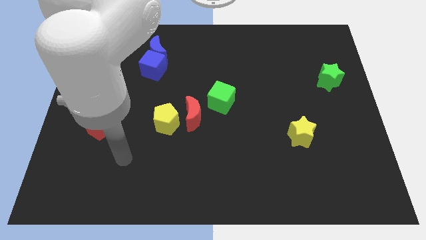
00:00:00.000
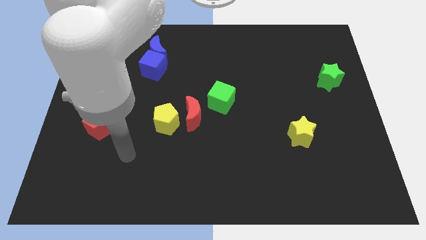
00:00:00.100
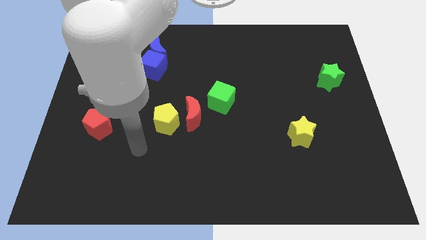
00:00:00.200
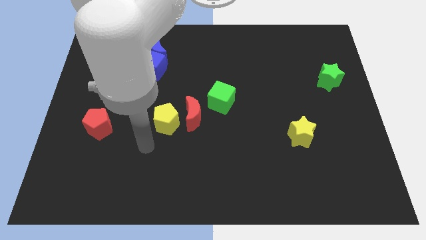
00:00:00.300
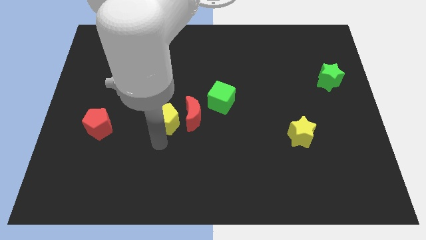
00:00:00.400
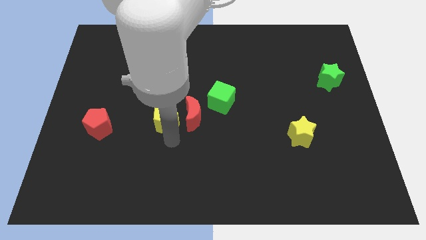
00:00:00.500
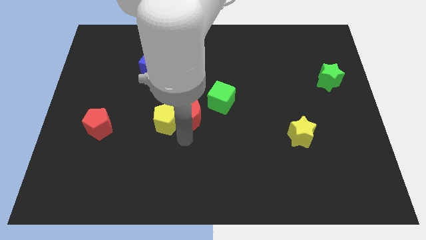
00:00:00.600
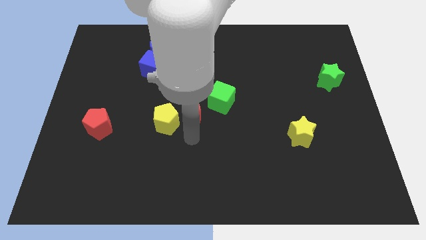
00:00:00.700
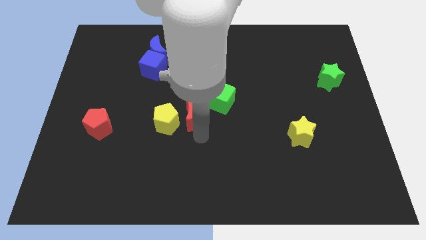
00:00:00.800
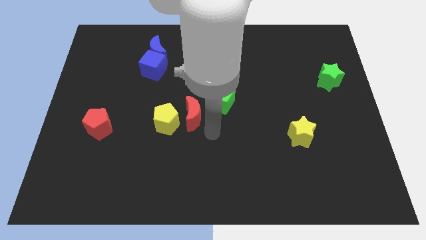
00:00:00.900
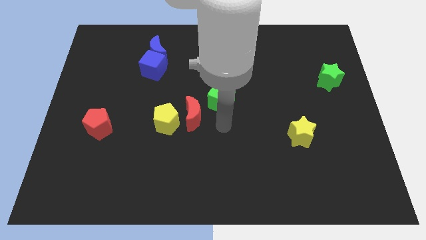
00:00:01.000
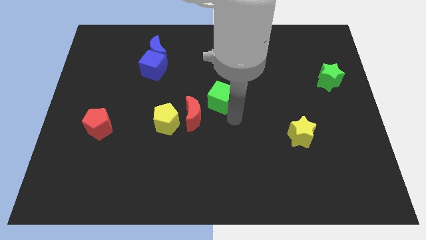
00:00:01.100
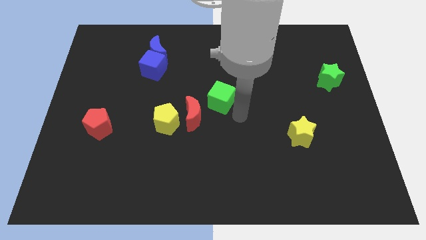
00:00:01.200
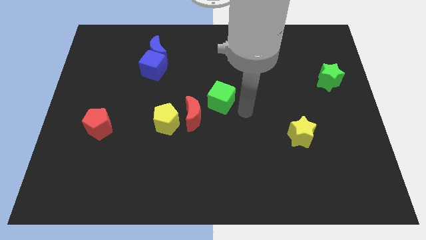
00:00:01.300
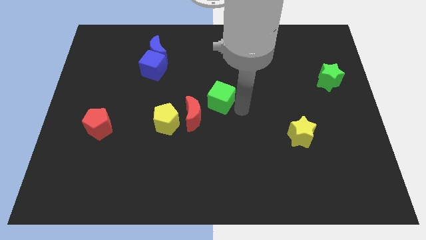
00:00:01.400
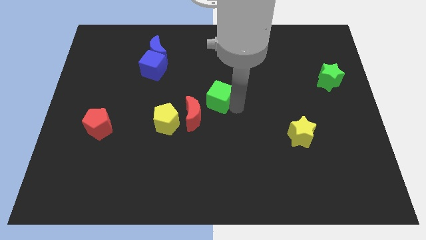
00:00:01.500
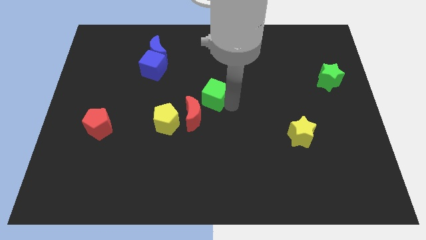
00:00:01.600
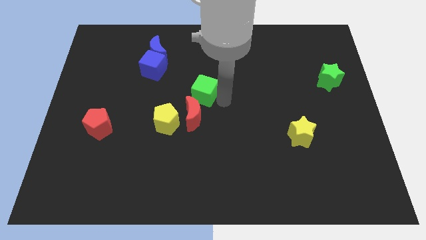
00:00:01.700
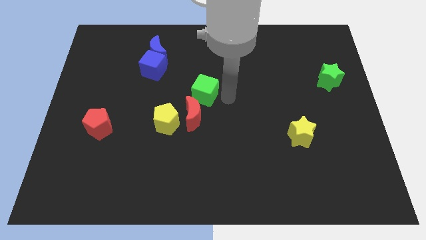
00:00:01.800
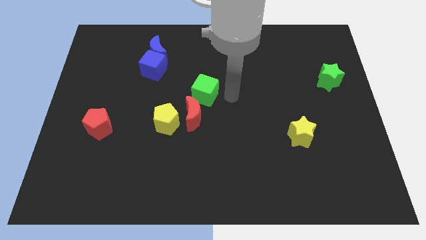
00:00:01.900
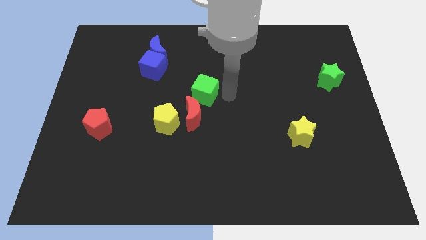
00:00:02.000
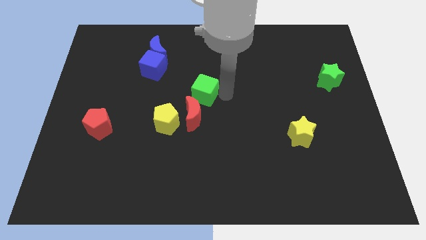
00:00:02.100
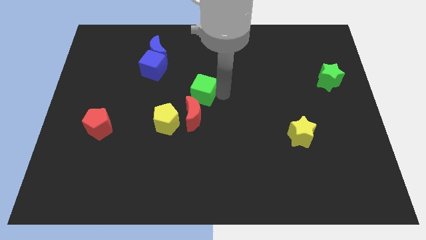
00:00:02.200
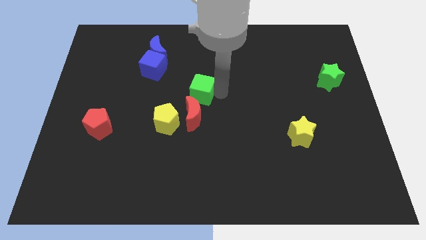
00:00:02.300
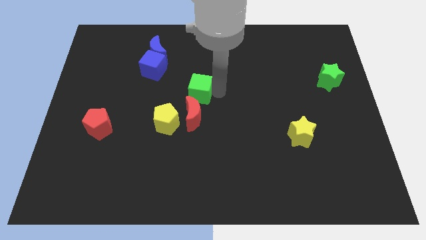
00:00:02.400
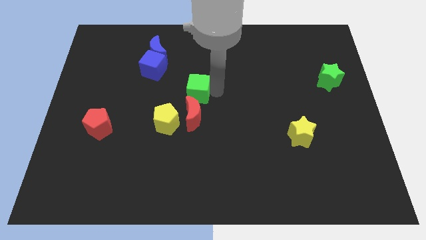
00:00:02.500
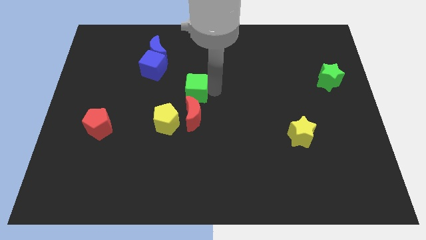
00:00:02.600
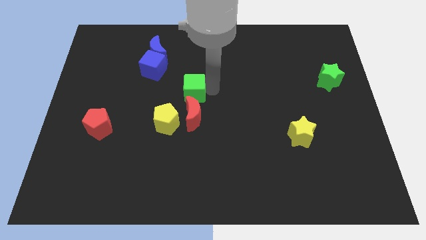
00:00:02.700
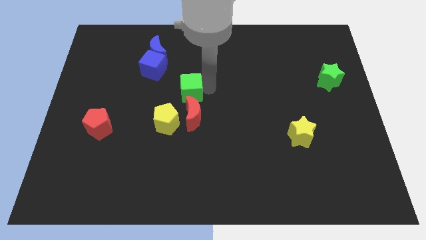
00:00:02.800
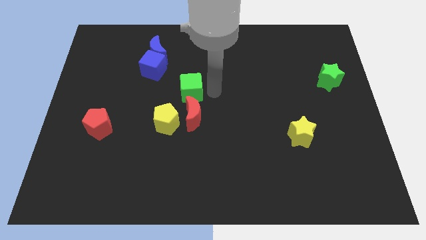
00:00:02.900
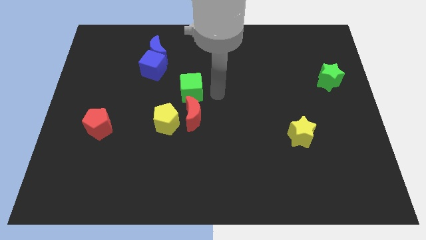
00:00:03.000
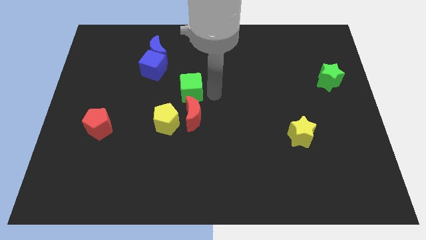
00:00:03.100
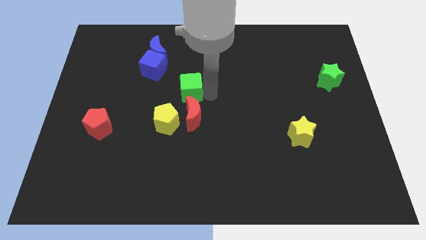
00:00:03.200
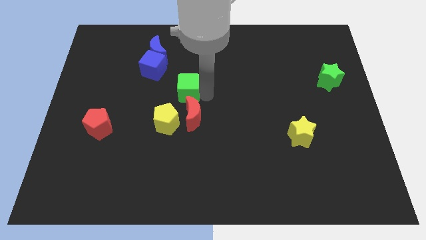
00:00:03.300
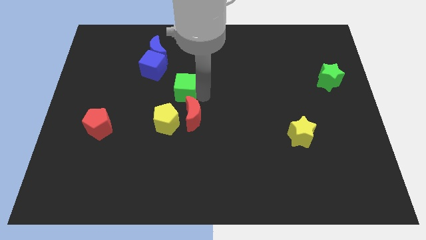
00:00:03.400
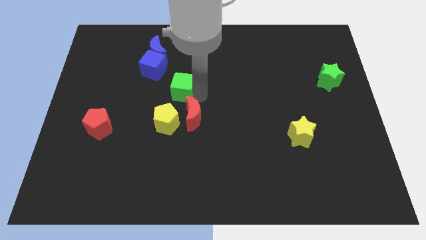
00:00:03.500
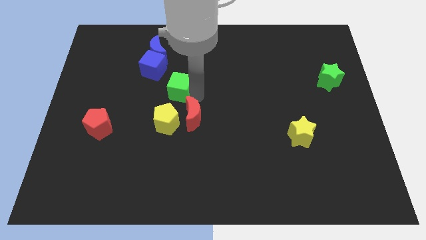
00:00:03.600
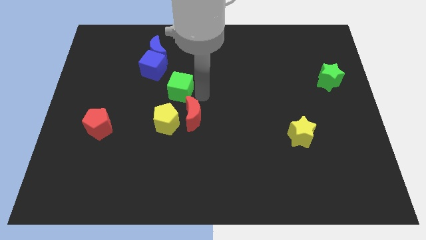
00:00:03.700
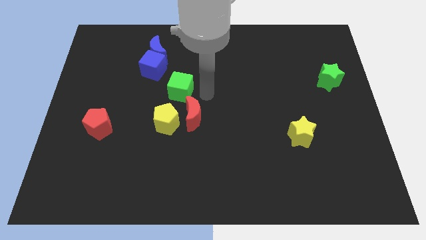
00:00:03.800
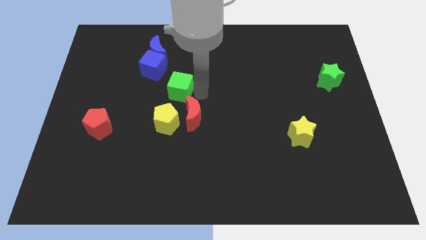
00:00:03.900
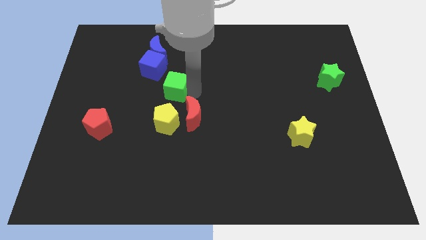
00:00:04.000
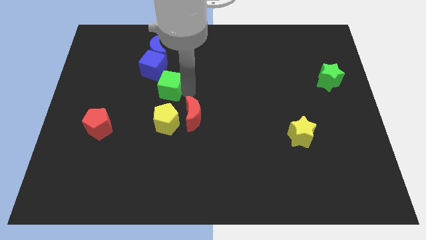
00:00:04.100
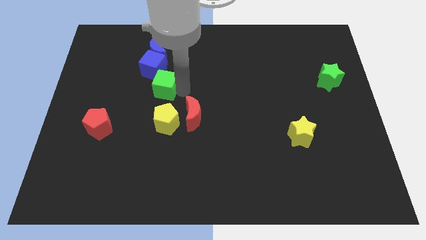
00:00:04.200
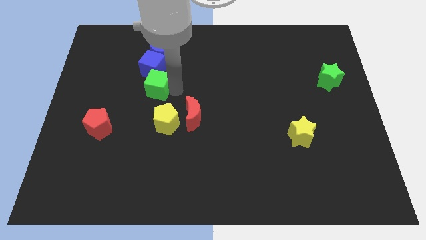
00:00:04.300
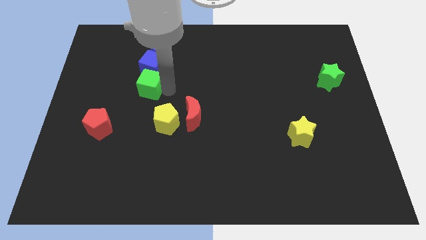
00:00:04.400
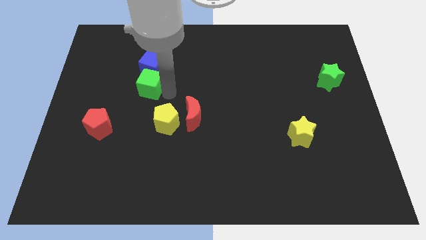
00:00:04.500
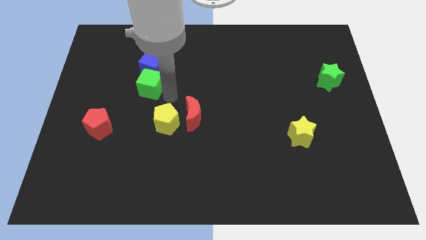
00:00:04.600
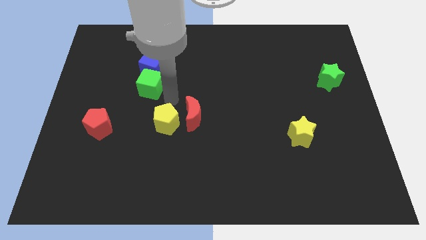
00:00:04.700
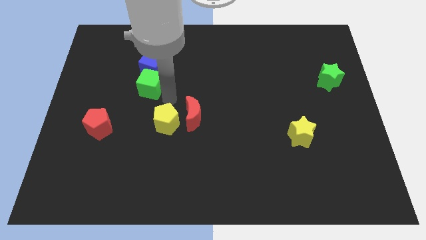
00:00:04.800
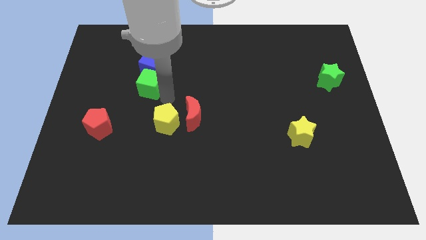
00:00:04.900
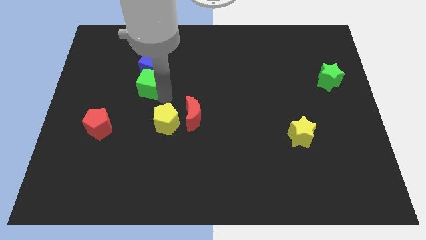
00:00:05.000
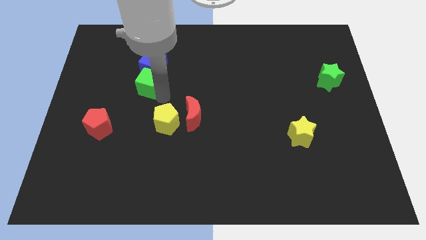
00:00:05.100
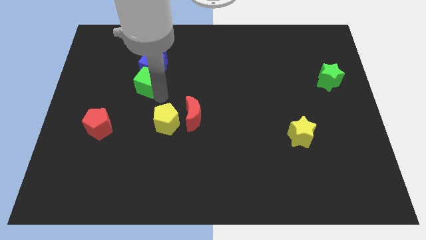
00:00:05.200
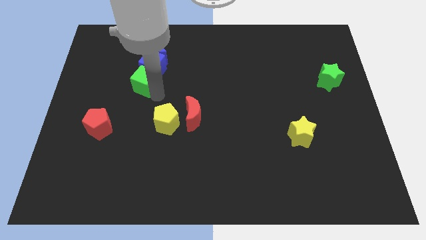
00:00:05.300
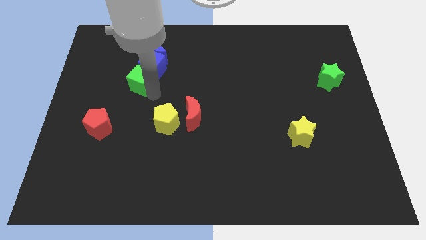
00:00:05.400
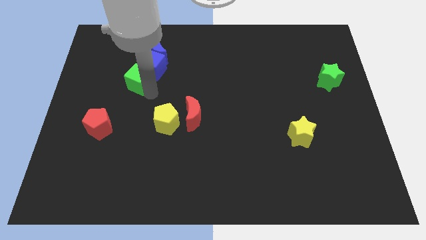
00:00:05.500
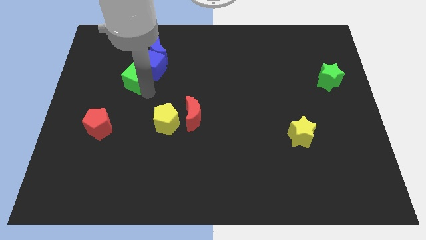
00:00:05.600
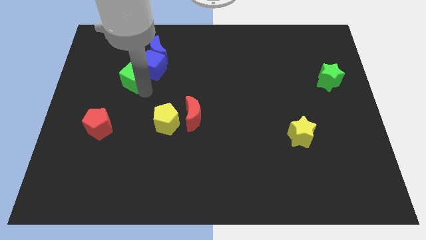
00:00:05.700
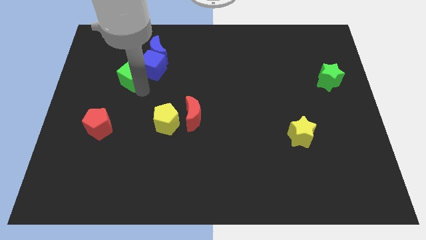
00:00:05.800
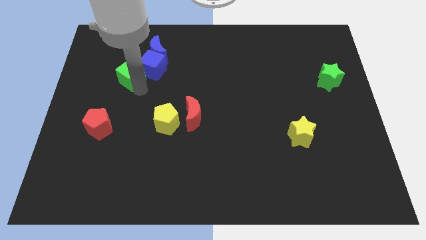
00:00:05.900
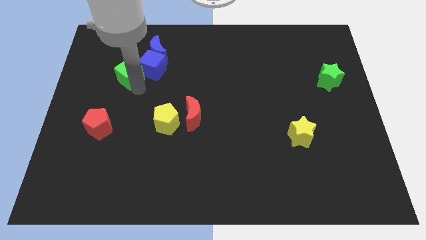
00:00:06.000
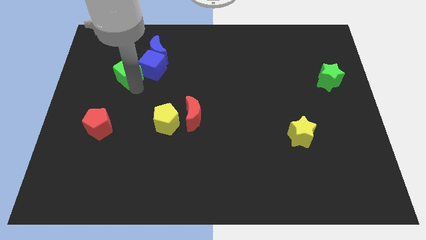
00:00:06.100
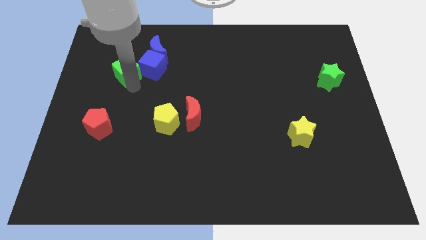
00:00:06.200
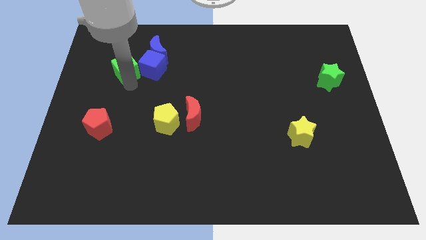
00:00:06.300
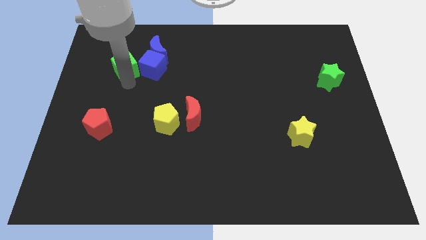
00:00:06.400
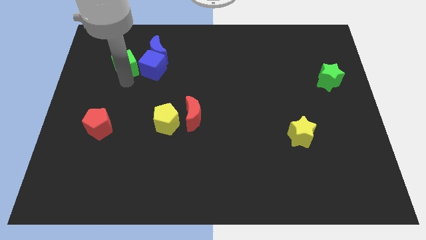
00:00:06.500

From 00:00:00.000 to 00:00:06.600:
move the green cube just left of the blue moon

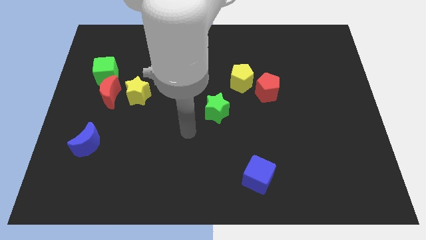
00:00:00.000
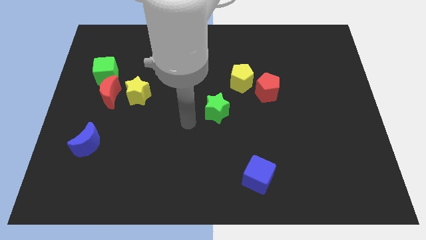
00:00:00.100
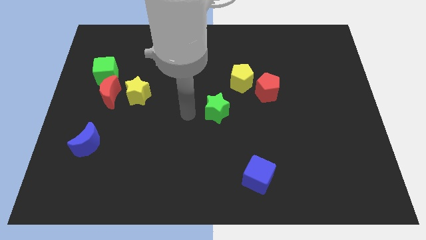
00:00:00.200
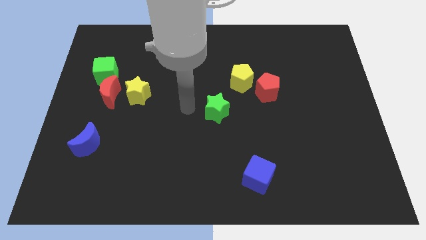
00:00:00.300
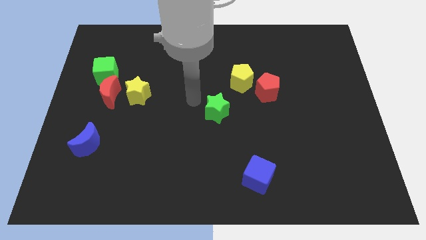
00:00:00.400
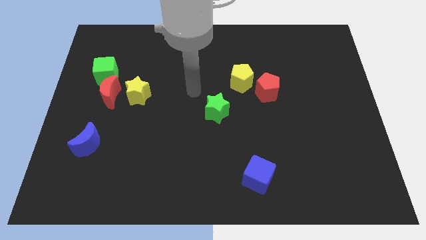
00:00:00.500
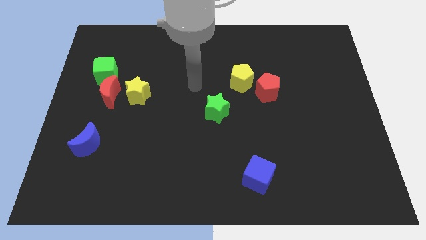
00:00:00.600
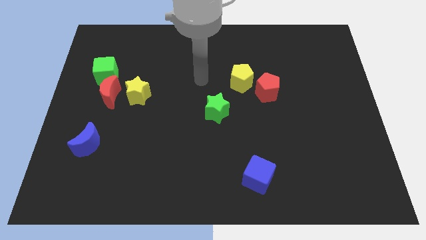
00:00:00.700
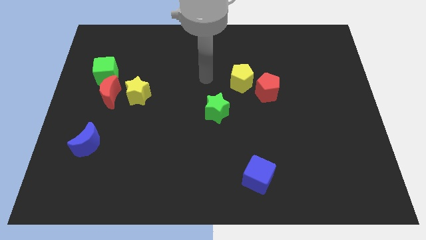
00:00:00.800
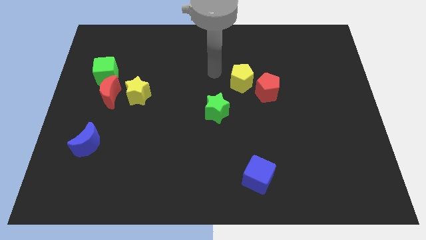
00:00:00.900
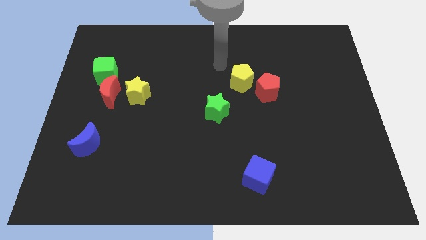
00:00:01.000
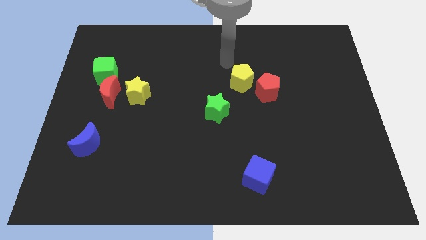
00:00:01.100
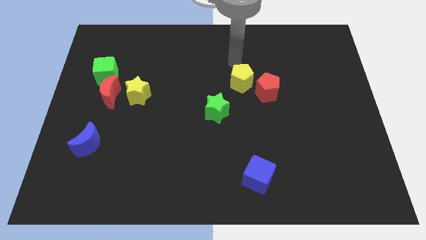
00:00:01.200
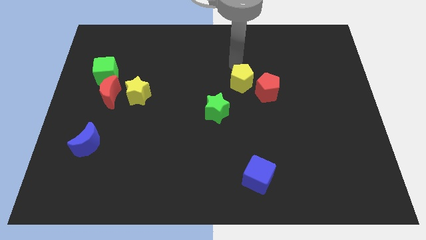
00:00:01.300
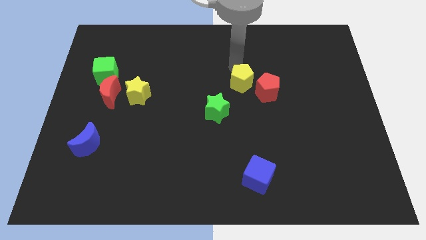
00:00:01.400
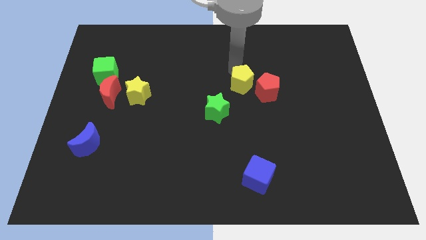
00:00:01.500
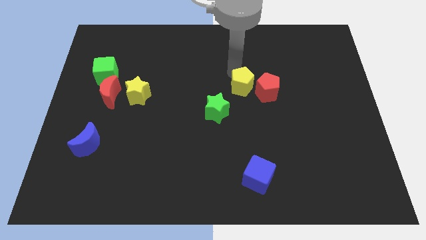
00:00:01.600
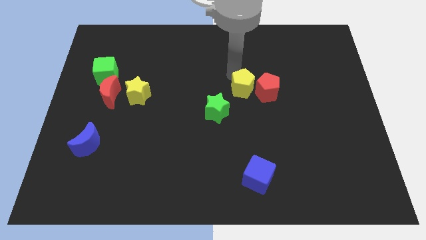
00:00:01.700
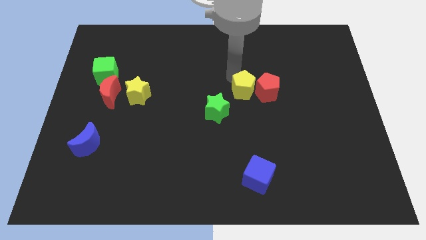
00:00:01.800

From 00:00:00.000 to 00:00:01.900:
put the yellow pentagon to the bottom left of the red pentagon
